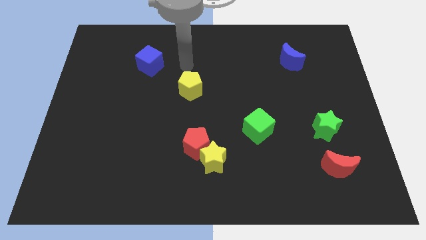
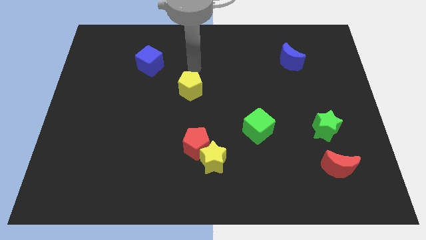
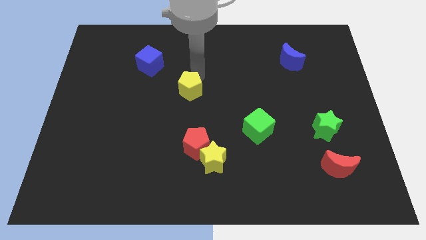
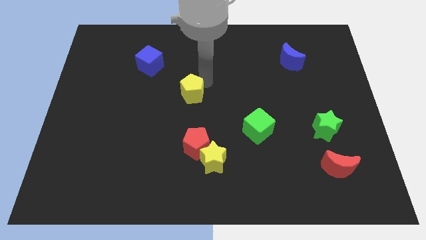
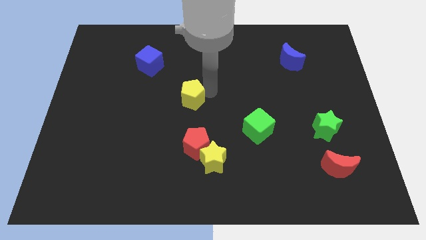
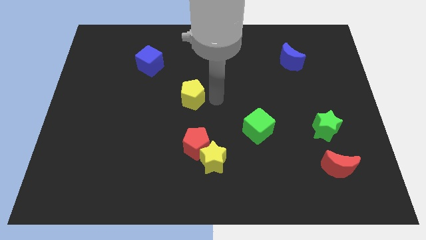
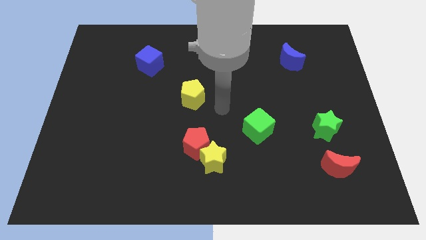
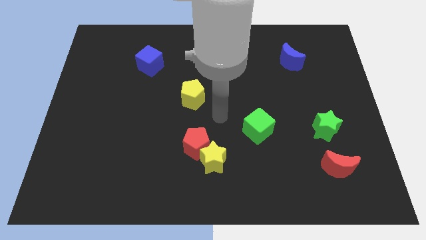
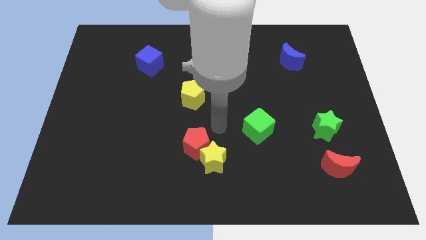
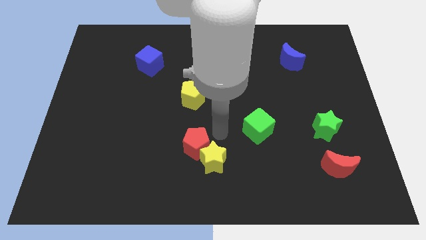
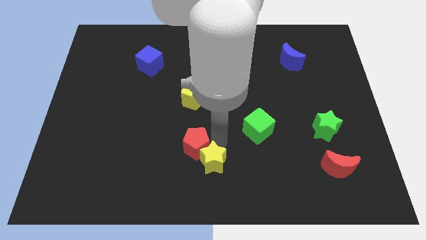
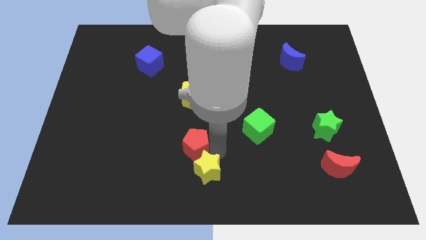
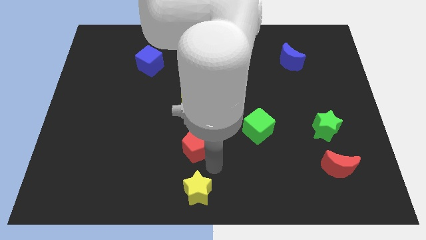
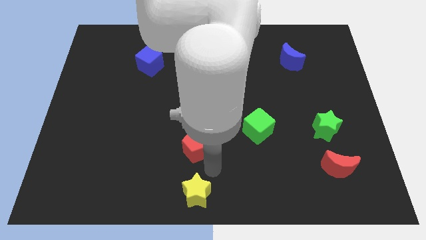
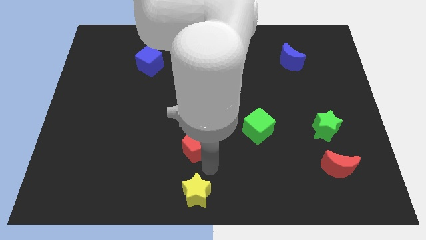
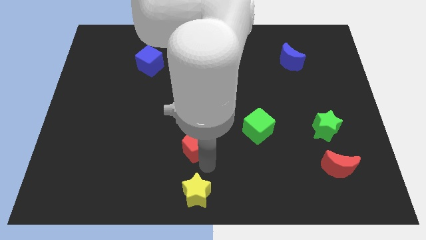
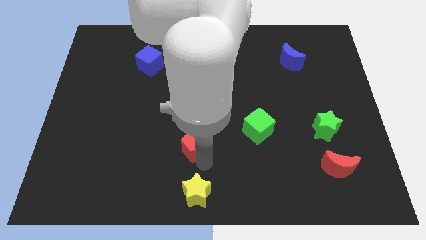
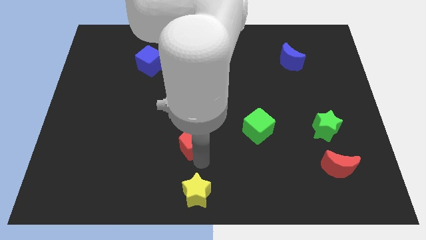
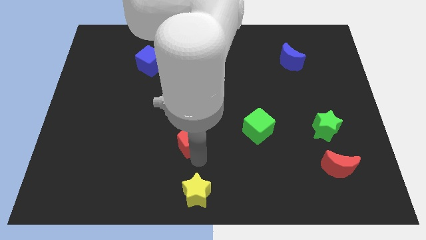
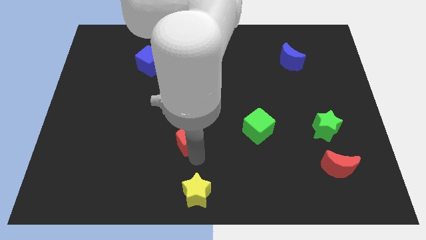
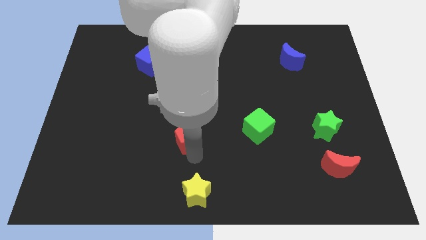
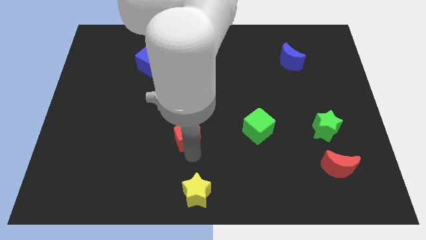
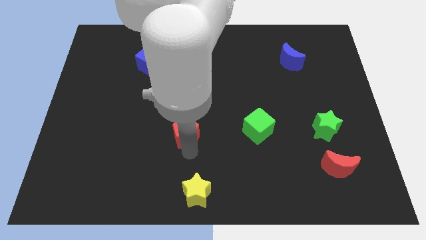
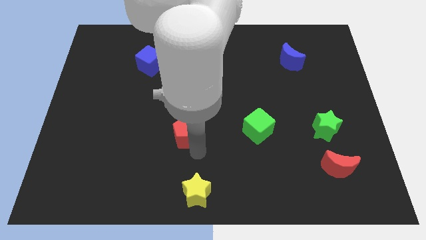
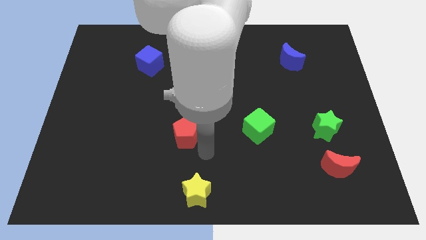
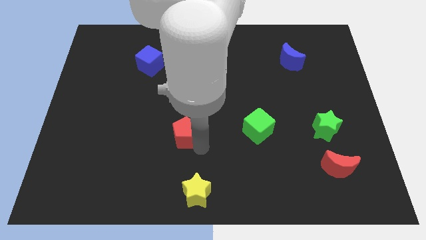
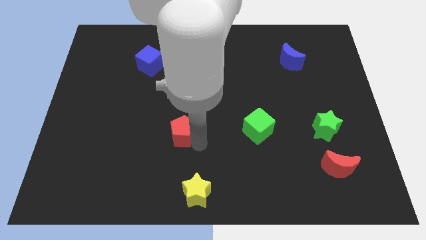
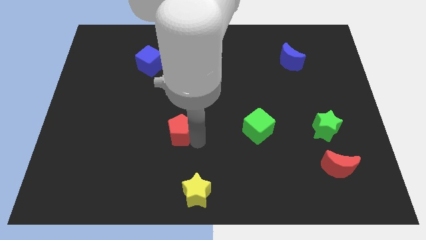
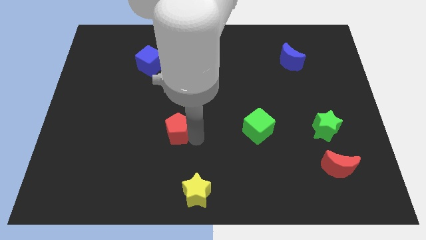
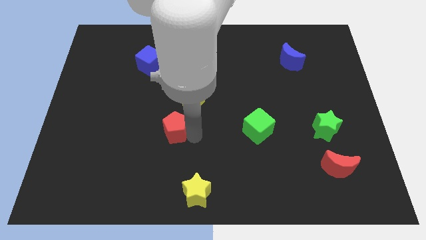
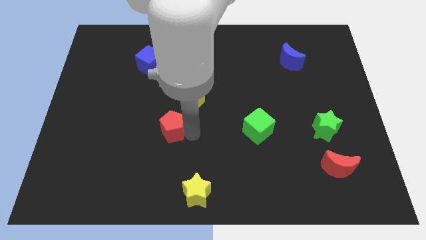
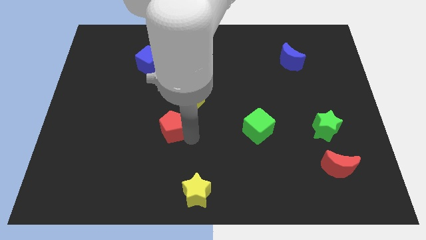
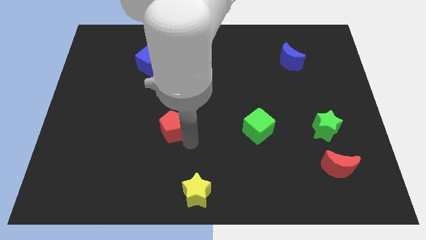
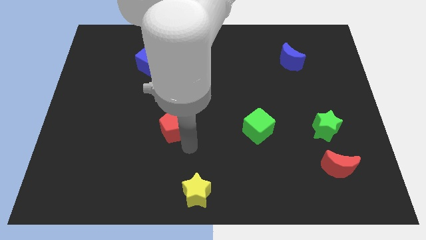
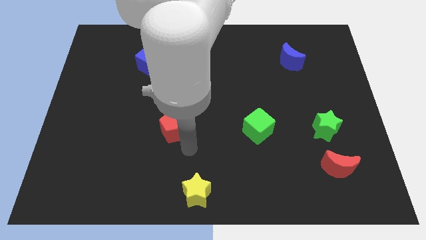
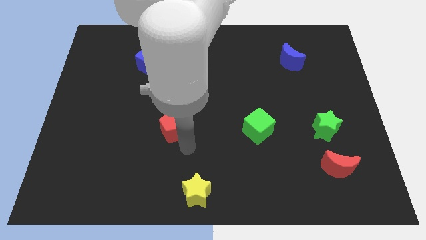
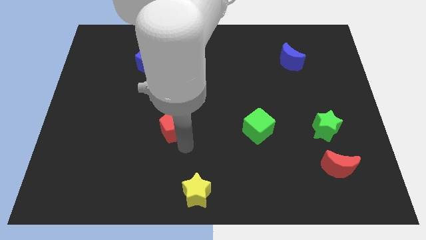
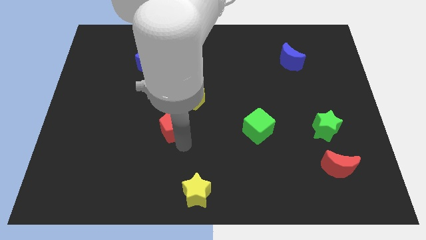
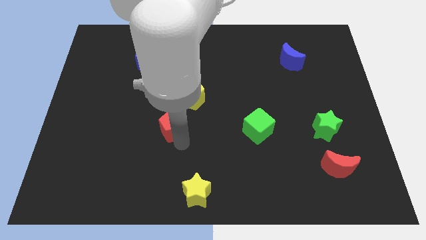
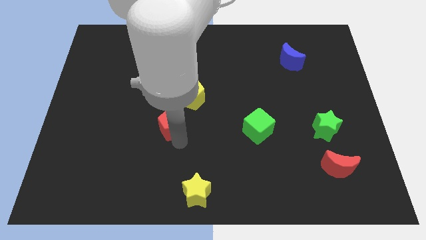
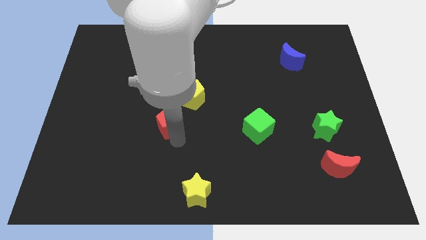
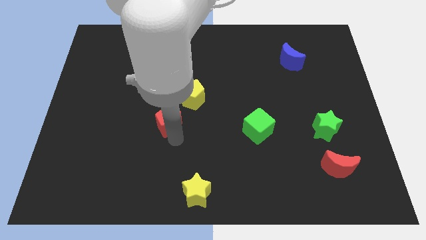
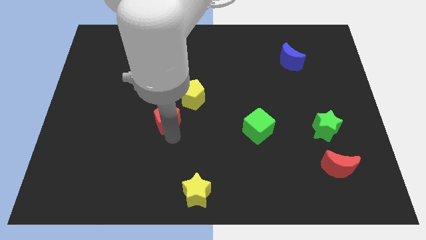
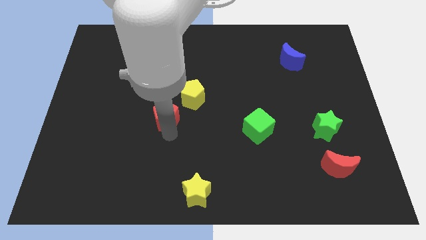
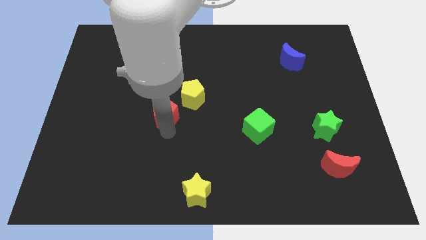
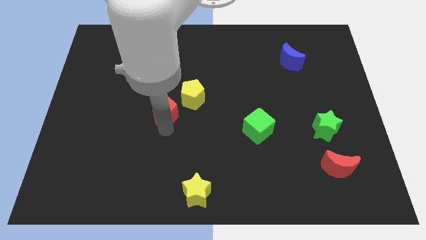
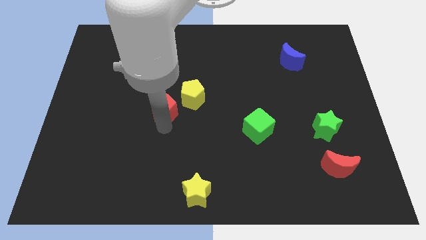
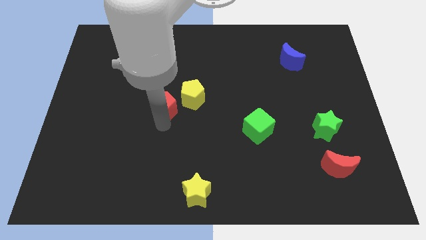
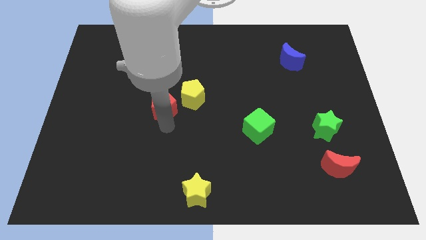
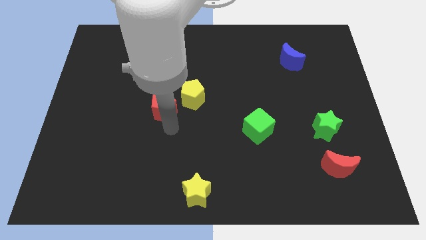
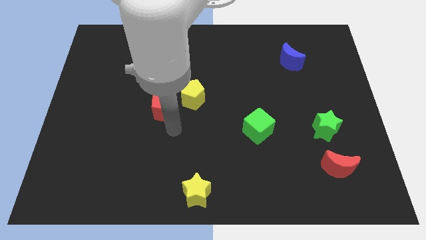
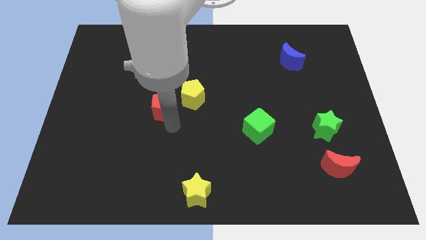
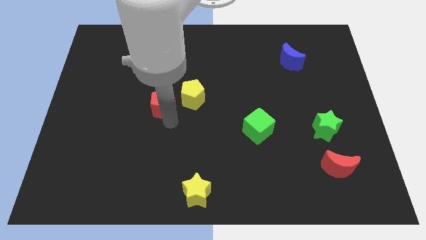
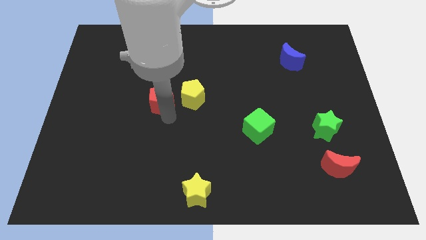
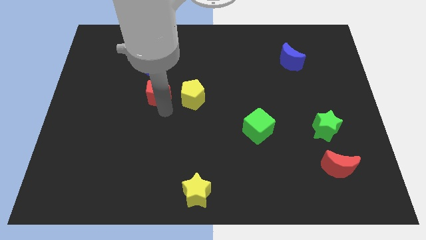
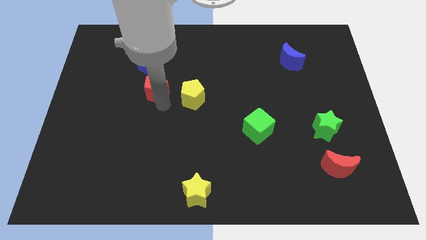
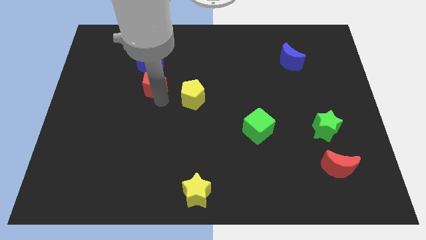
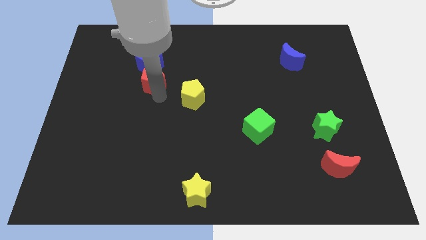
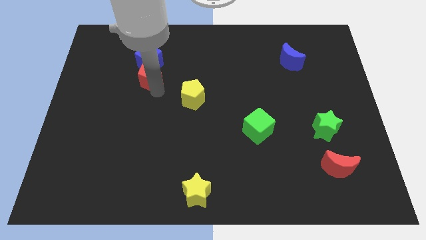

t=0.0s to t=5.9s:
push the red pentagon next to the blue cube

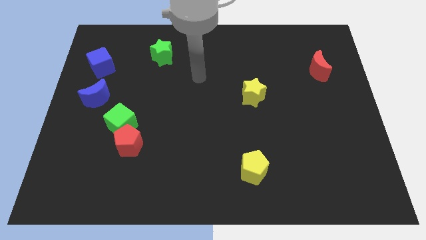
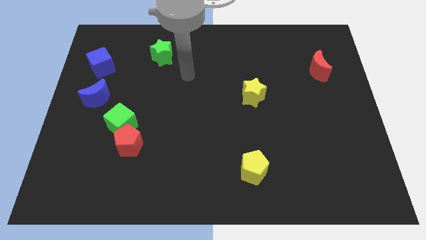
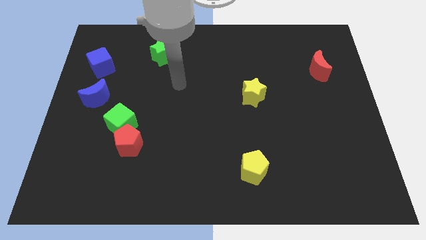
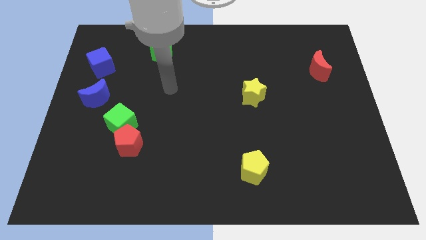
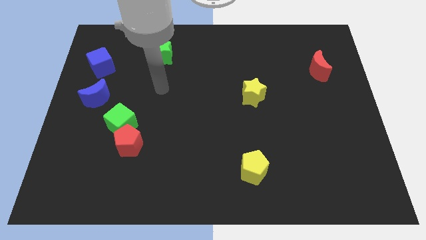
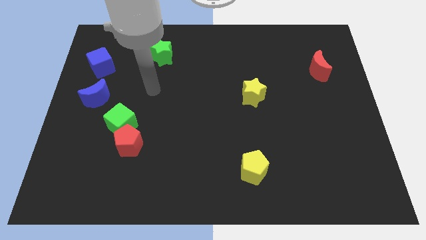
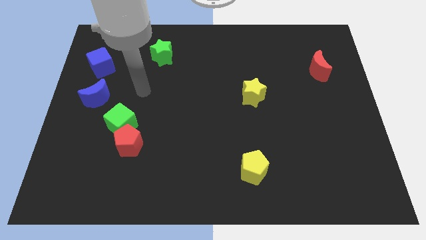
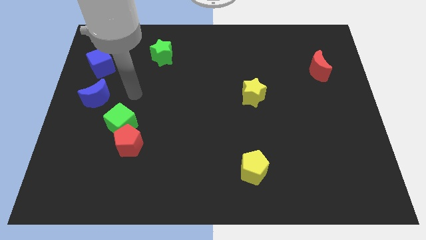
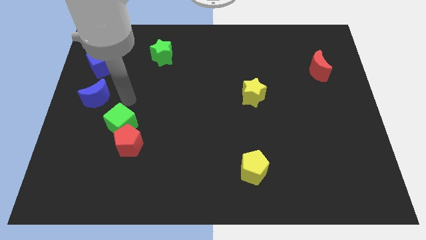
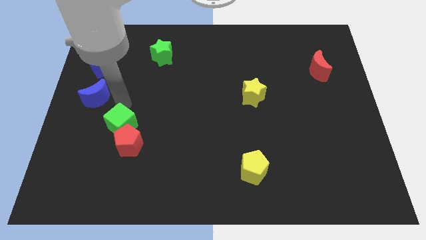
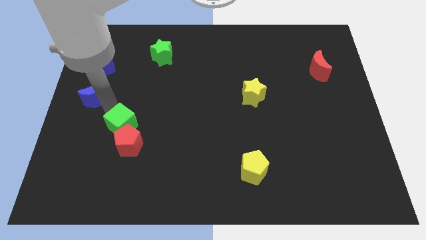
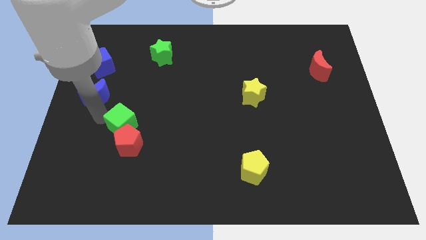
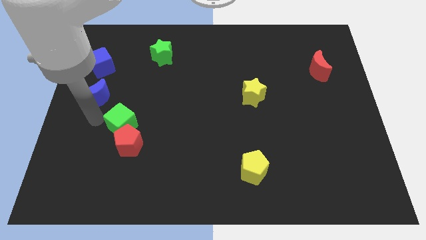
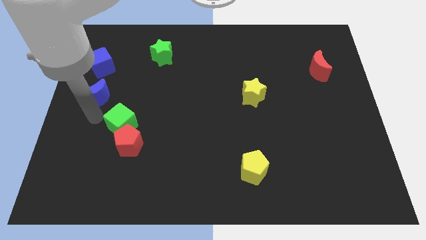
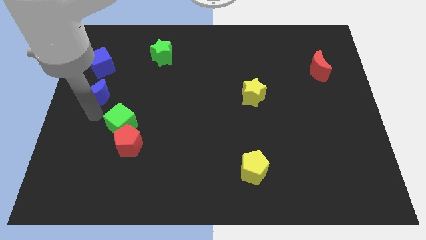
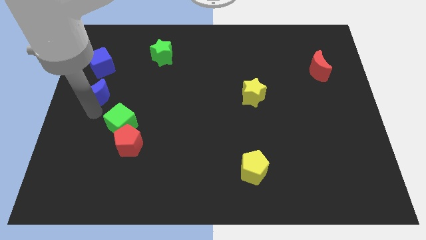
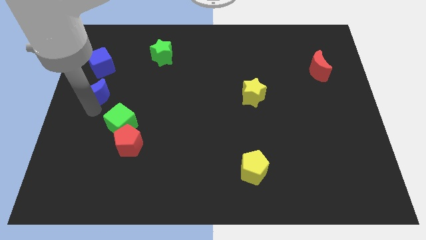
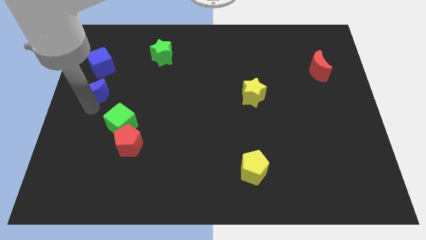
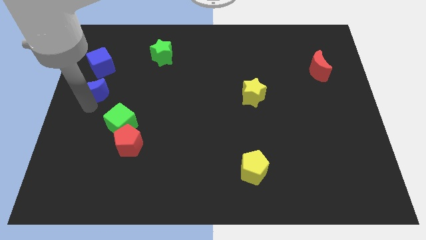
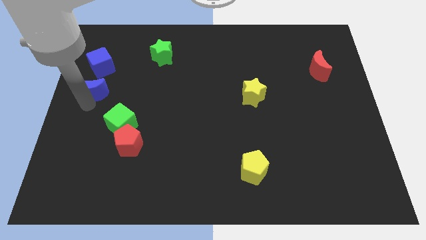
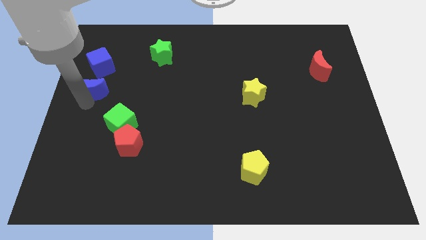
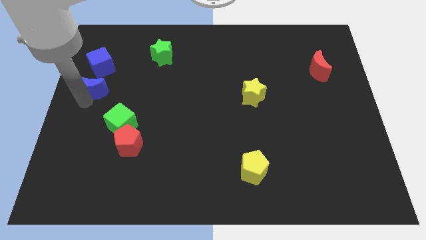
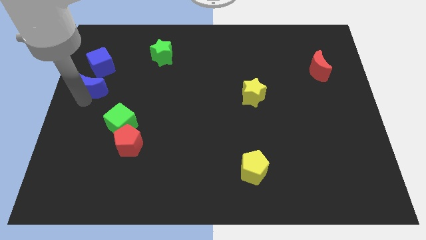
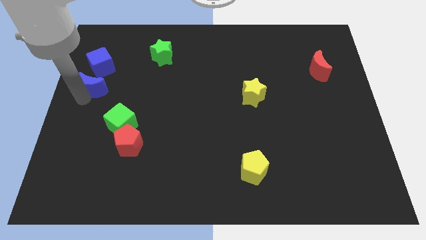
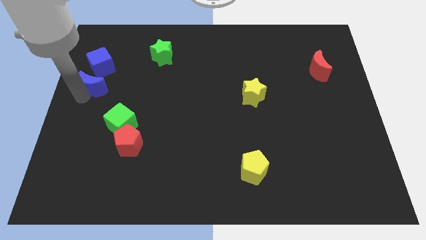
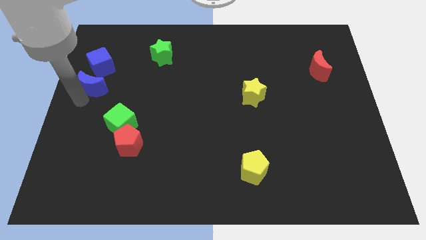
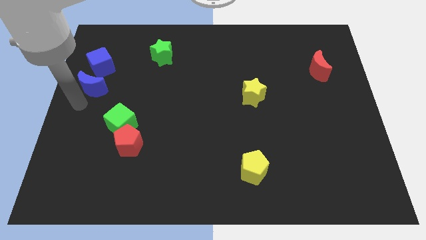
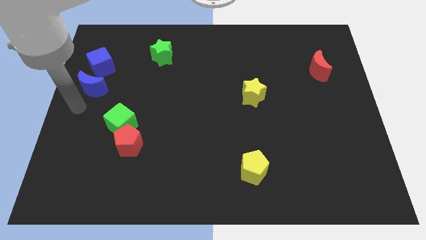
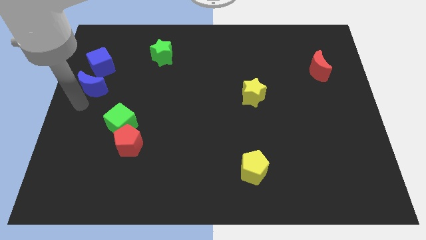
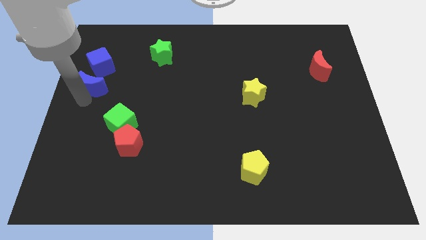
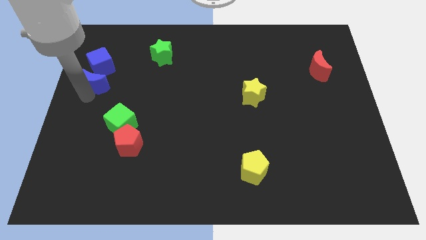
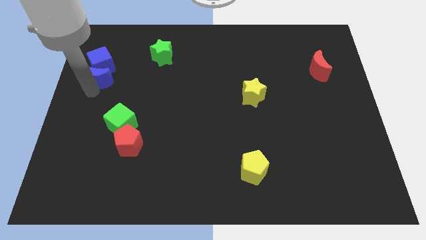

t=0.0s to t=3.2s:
move the blue moon towards the blue cube
